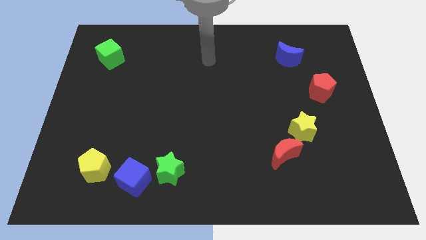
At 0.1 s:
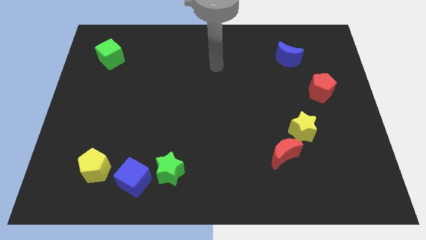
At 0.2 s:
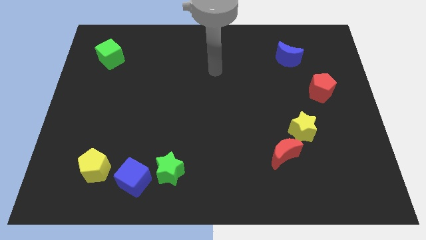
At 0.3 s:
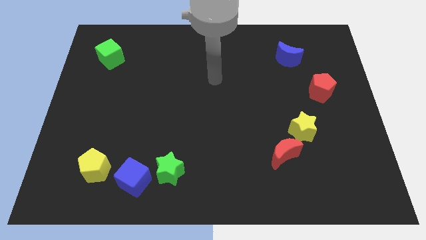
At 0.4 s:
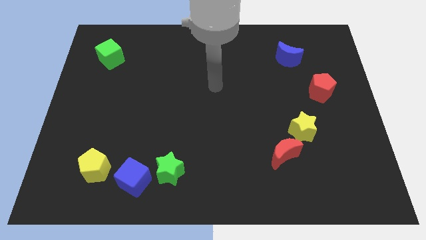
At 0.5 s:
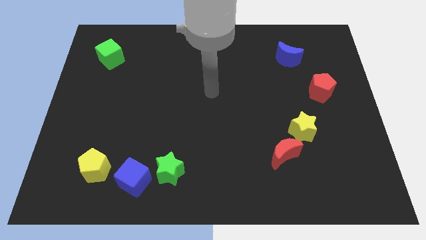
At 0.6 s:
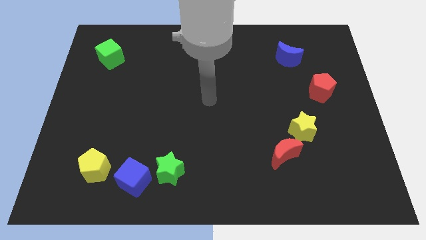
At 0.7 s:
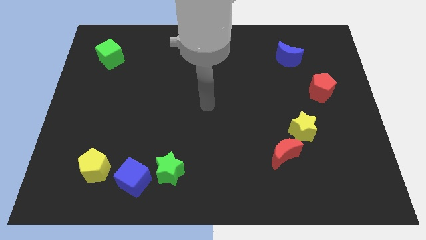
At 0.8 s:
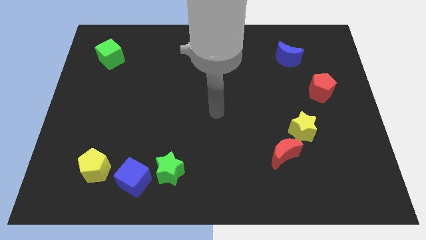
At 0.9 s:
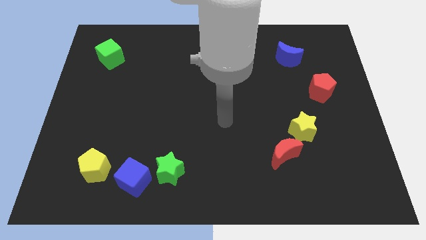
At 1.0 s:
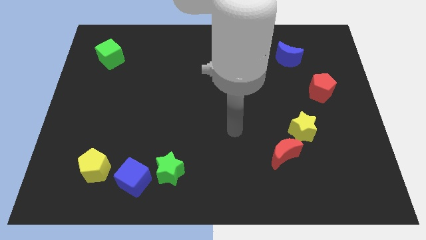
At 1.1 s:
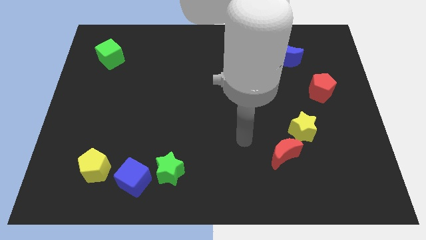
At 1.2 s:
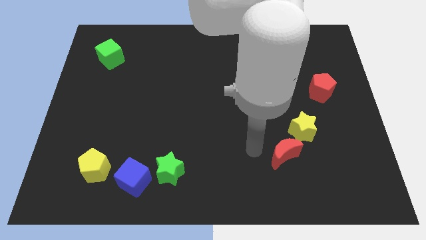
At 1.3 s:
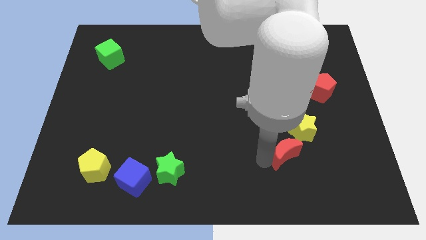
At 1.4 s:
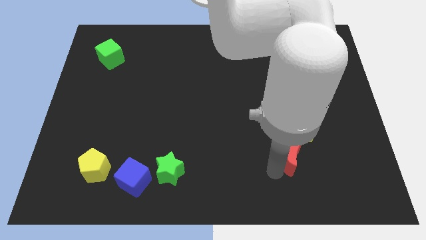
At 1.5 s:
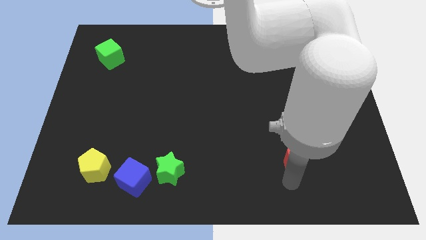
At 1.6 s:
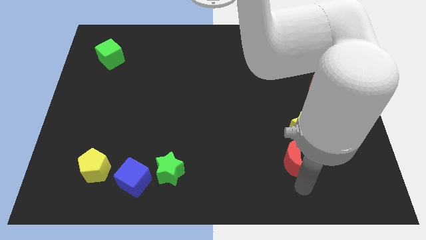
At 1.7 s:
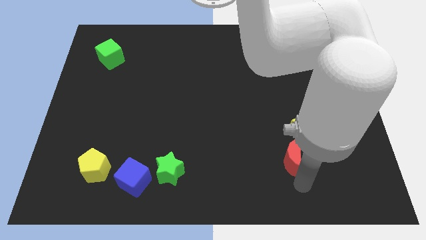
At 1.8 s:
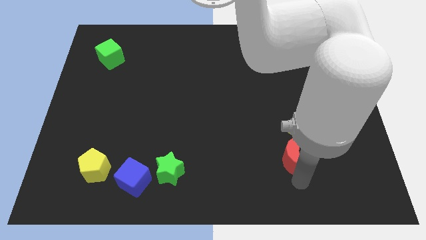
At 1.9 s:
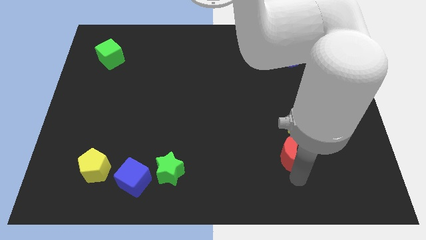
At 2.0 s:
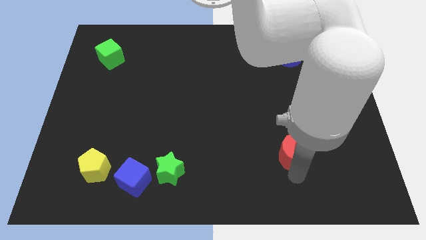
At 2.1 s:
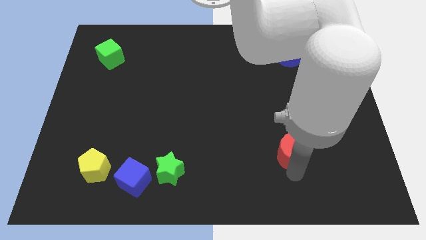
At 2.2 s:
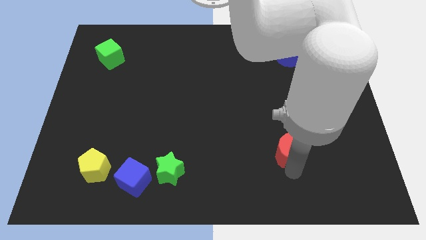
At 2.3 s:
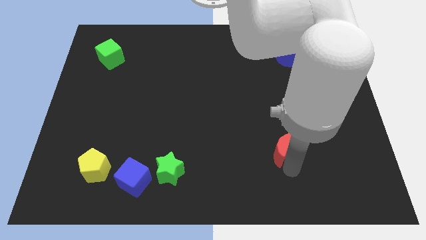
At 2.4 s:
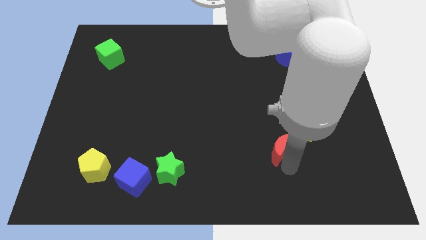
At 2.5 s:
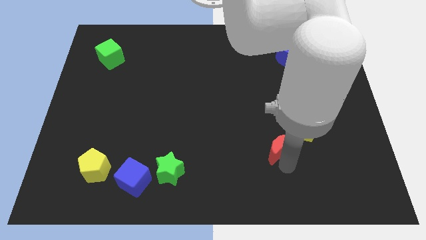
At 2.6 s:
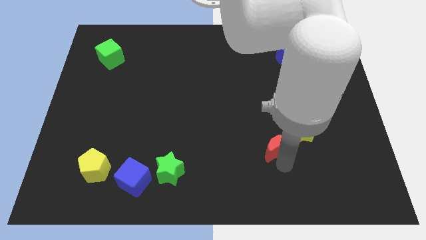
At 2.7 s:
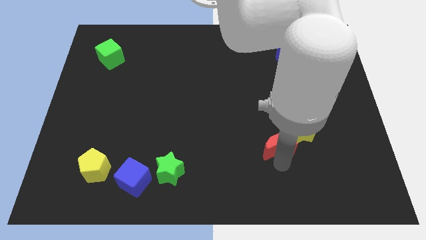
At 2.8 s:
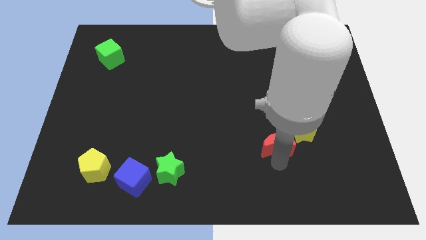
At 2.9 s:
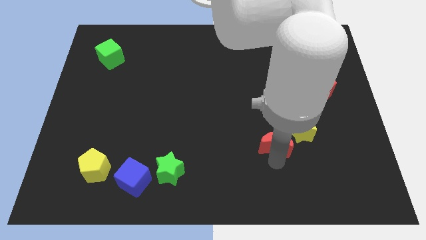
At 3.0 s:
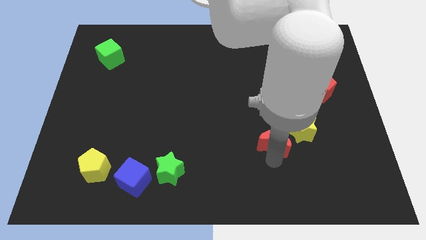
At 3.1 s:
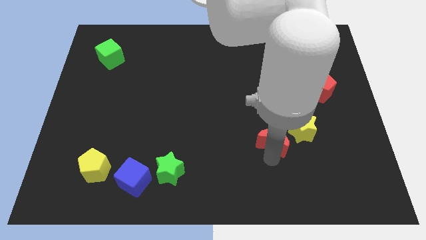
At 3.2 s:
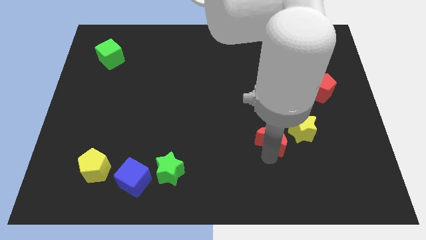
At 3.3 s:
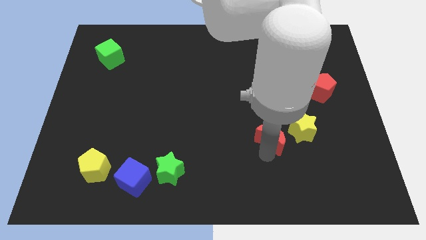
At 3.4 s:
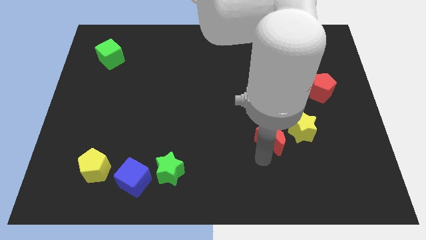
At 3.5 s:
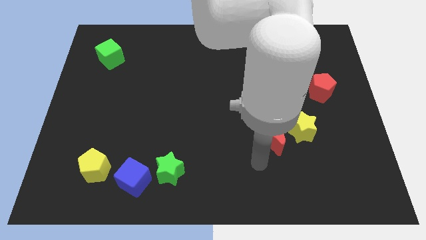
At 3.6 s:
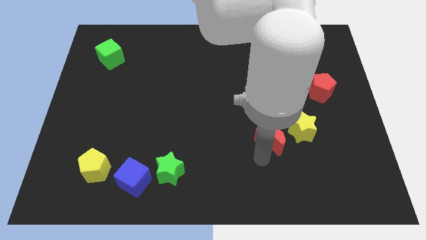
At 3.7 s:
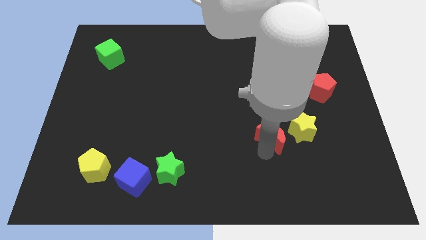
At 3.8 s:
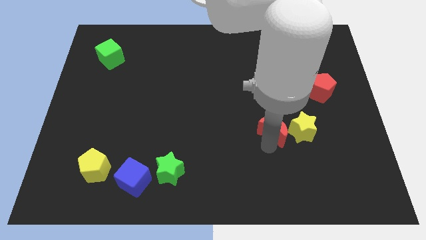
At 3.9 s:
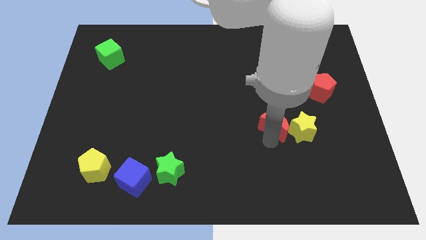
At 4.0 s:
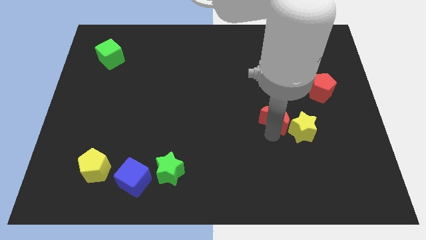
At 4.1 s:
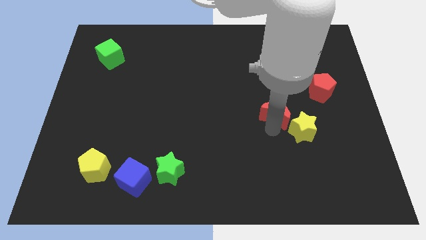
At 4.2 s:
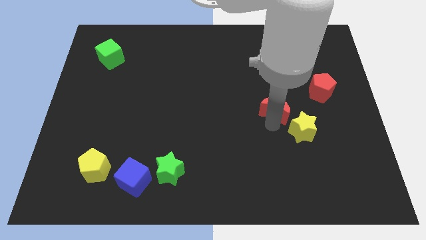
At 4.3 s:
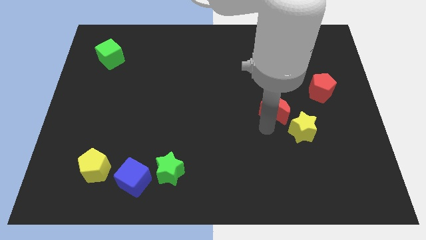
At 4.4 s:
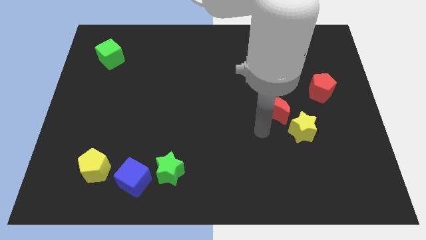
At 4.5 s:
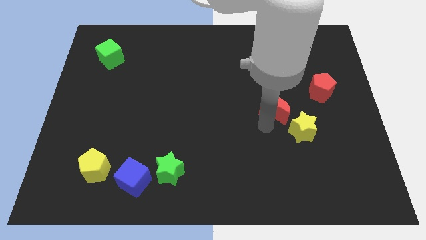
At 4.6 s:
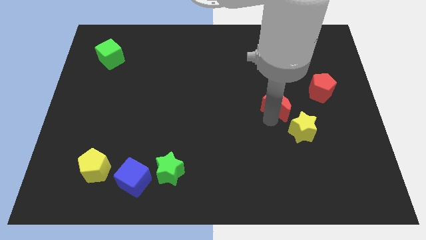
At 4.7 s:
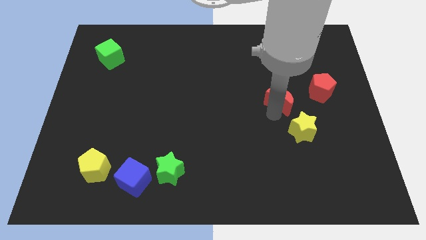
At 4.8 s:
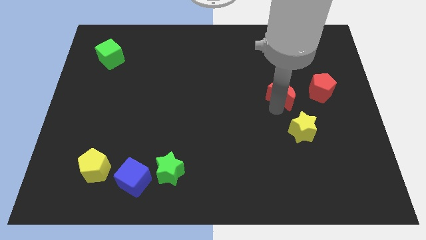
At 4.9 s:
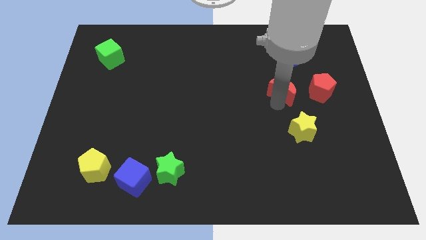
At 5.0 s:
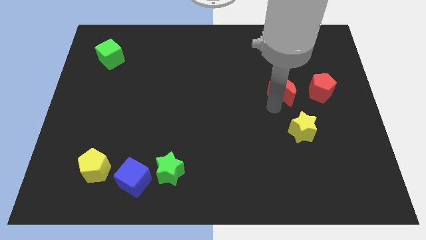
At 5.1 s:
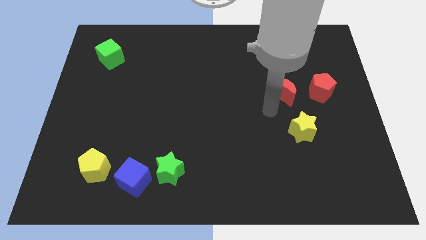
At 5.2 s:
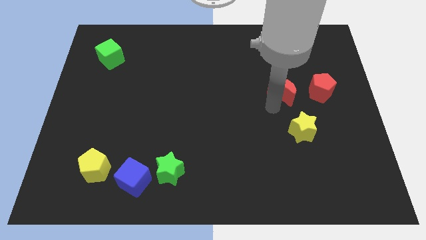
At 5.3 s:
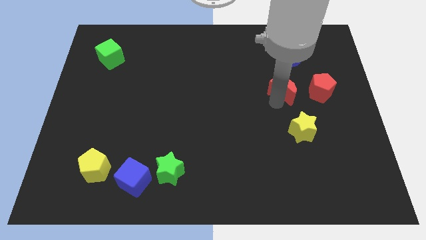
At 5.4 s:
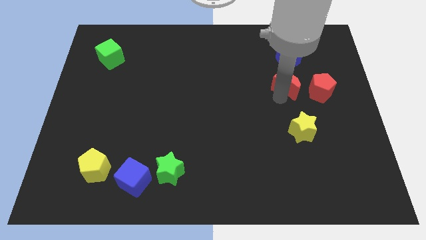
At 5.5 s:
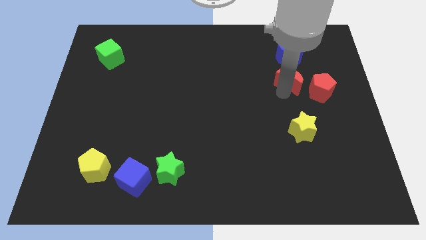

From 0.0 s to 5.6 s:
slide the red moon diagonally up and to the left of the red pentagon

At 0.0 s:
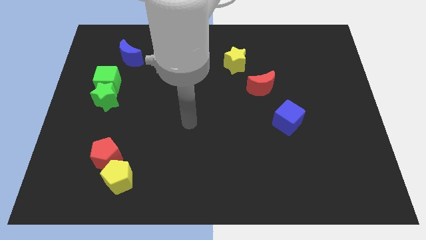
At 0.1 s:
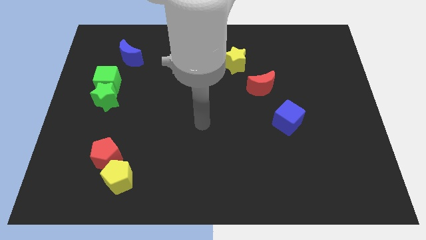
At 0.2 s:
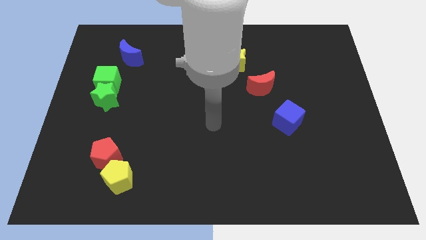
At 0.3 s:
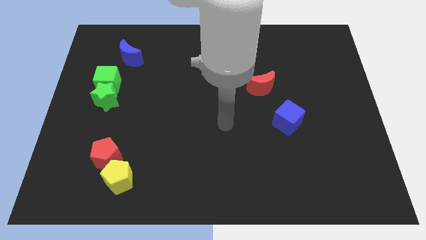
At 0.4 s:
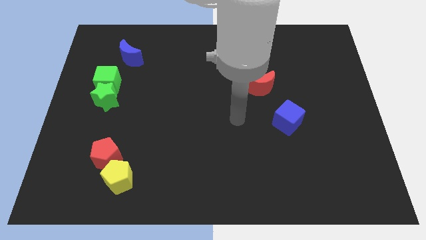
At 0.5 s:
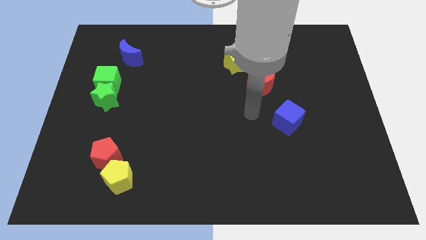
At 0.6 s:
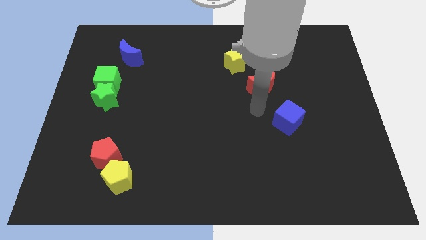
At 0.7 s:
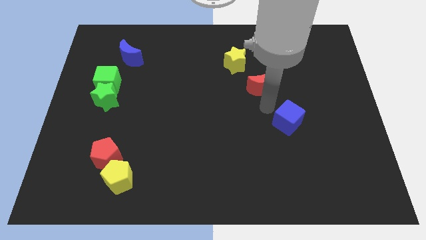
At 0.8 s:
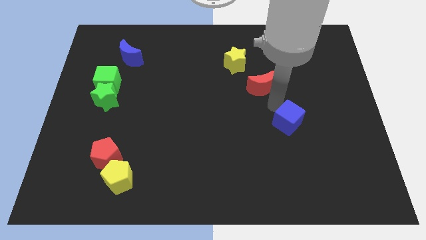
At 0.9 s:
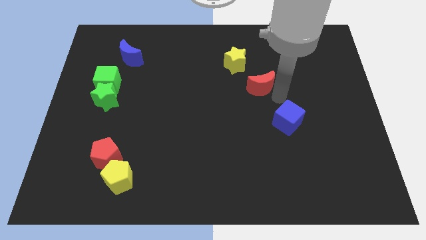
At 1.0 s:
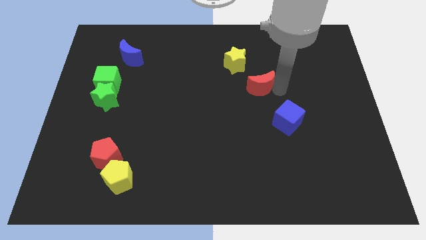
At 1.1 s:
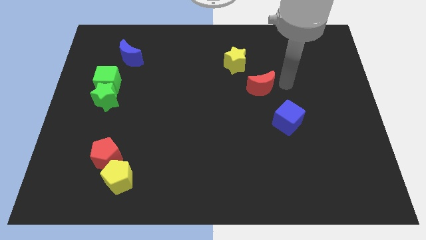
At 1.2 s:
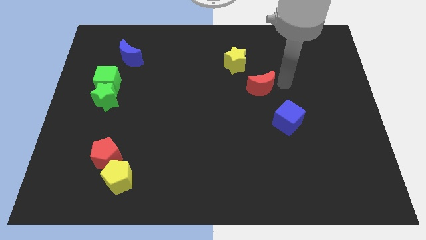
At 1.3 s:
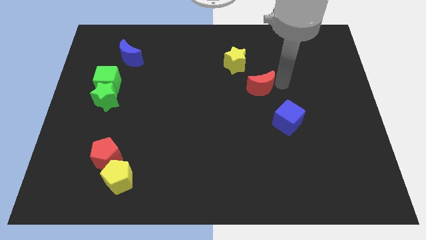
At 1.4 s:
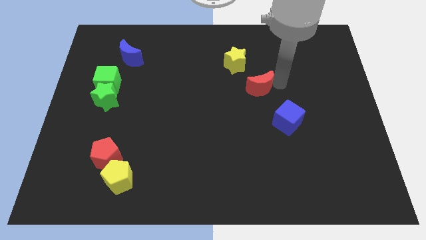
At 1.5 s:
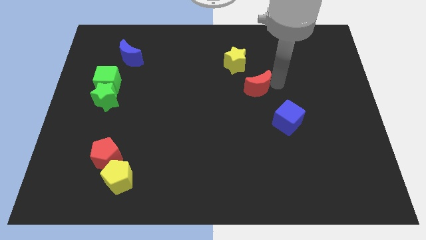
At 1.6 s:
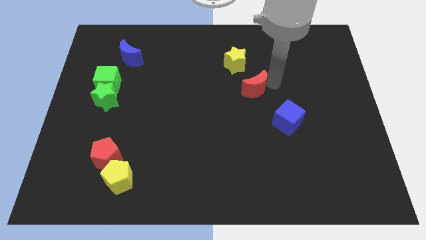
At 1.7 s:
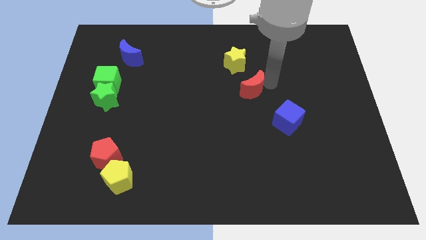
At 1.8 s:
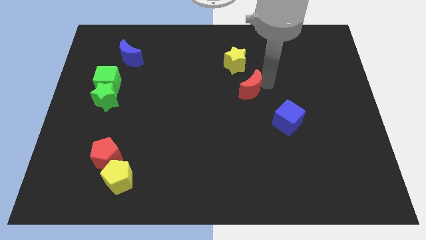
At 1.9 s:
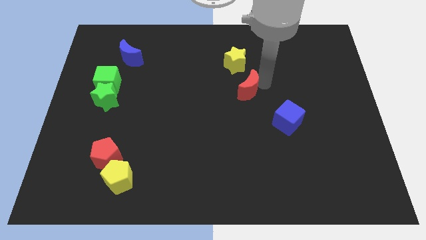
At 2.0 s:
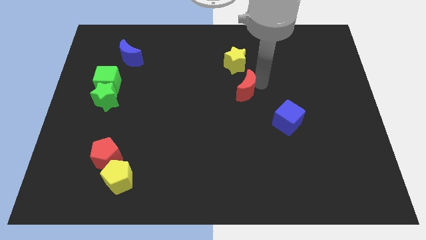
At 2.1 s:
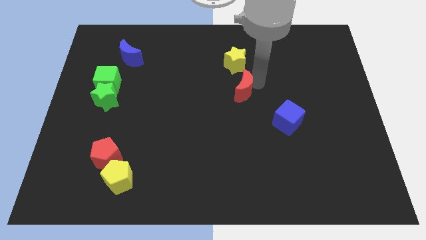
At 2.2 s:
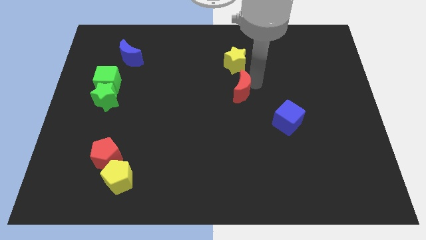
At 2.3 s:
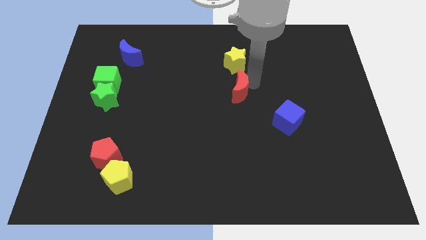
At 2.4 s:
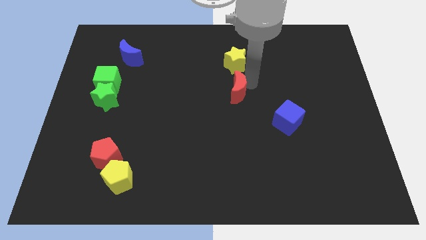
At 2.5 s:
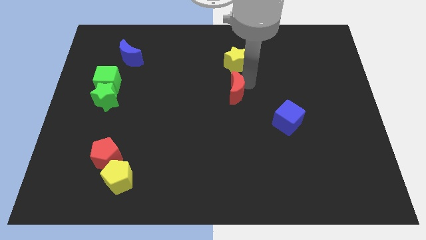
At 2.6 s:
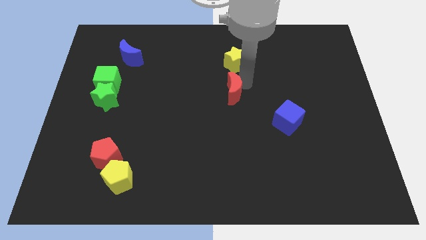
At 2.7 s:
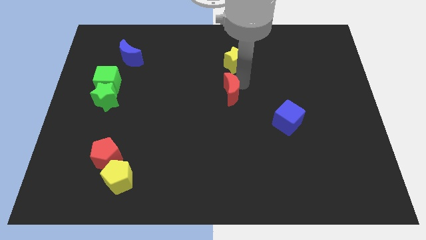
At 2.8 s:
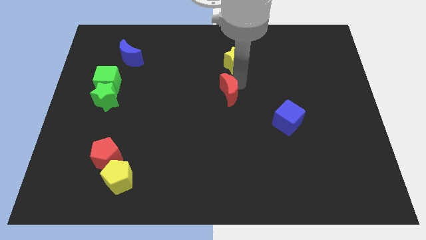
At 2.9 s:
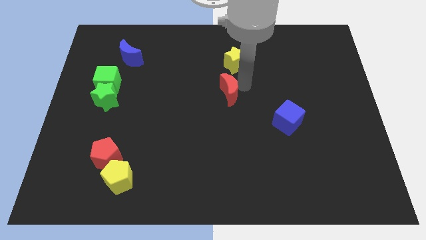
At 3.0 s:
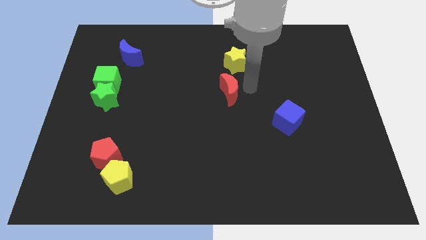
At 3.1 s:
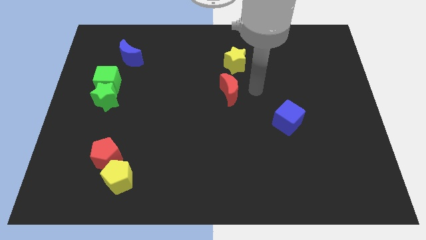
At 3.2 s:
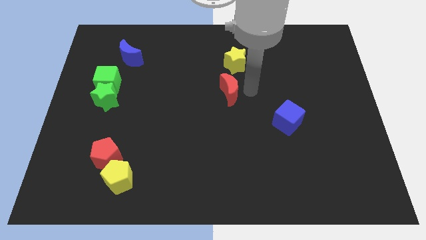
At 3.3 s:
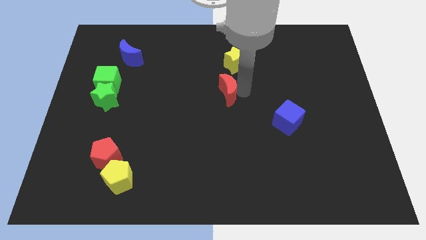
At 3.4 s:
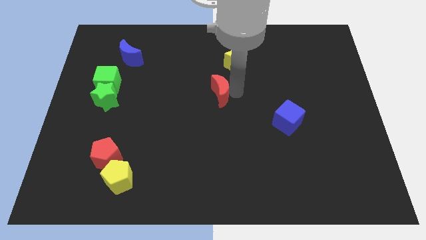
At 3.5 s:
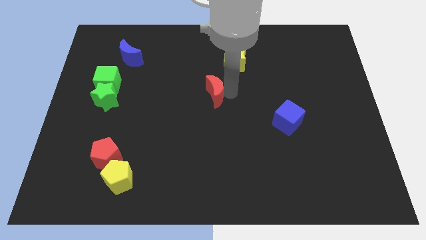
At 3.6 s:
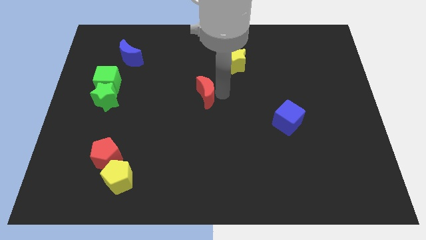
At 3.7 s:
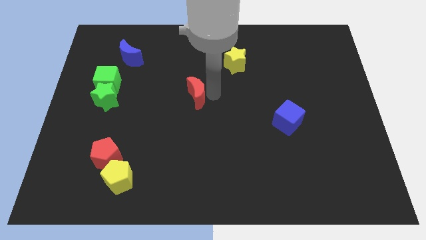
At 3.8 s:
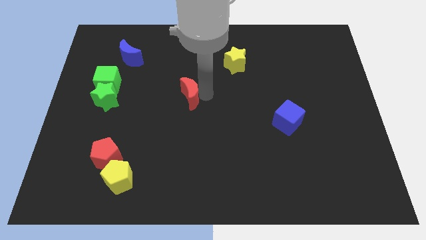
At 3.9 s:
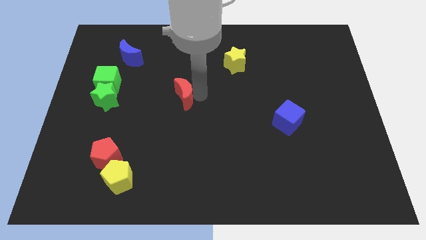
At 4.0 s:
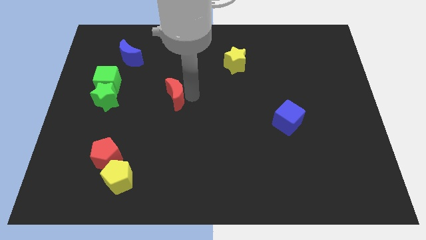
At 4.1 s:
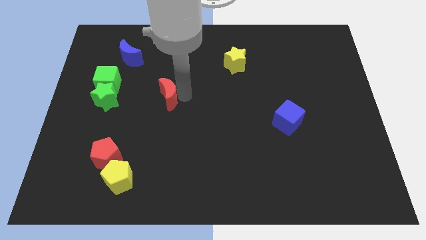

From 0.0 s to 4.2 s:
push the red moon just right of the green star
